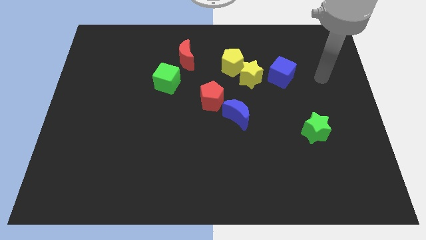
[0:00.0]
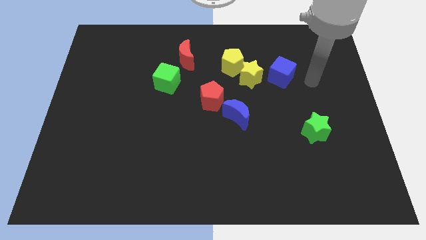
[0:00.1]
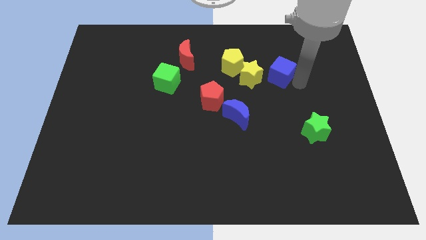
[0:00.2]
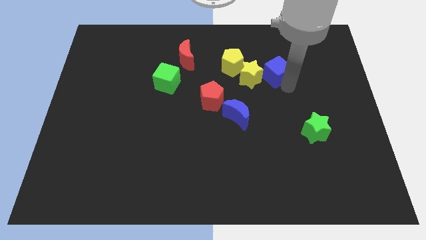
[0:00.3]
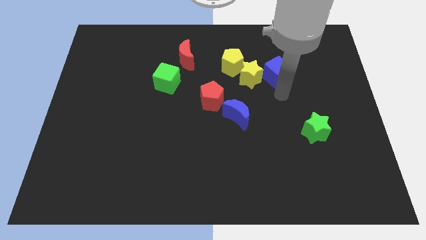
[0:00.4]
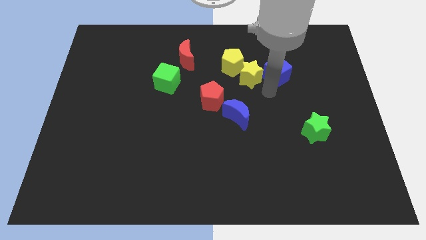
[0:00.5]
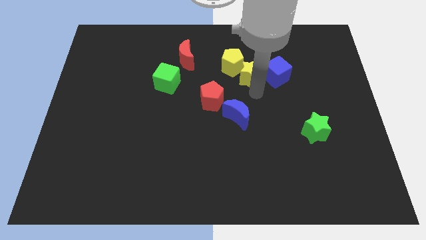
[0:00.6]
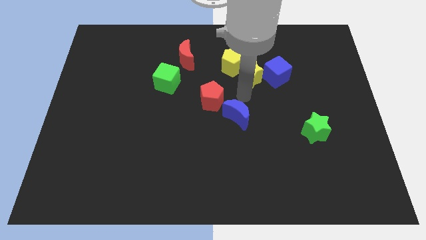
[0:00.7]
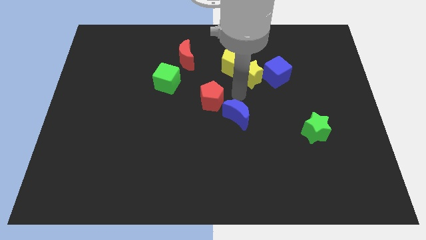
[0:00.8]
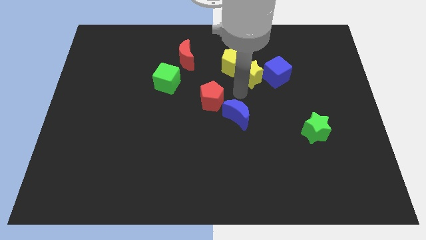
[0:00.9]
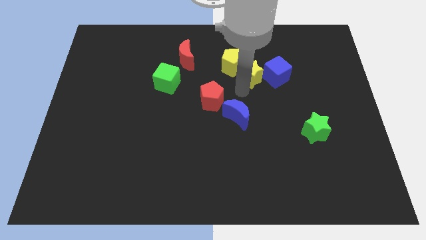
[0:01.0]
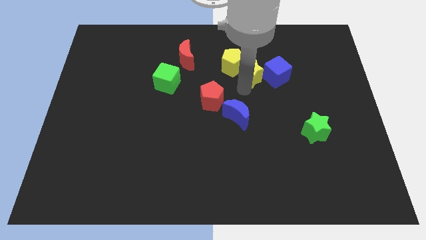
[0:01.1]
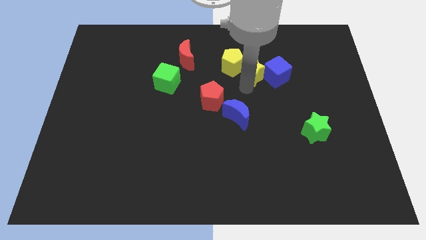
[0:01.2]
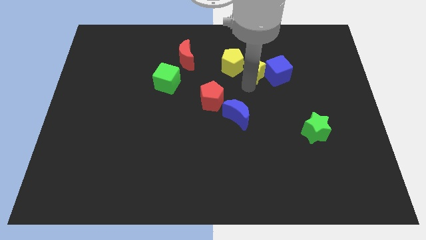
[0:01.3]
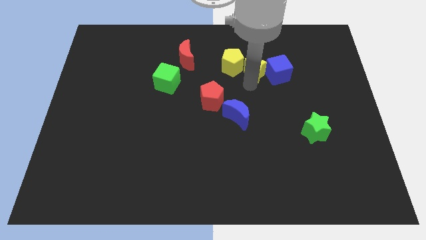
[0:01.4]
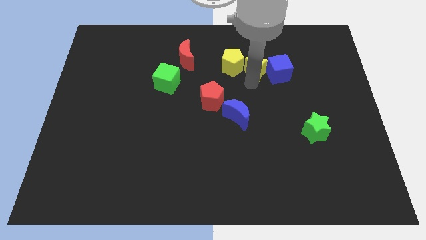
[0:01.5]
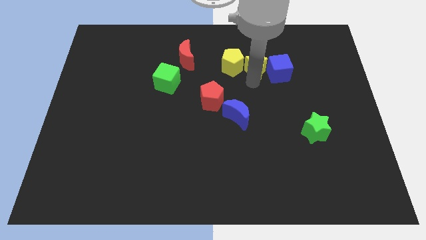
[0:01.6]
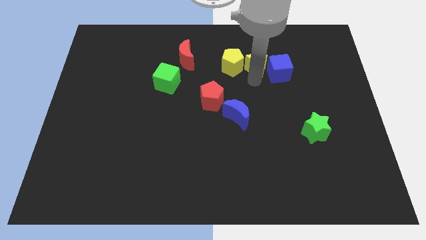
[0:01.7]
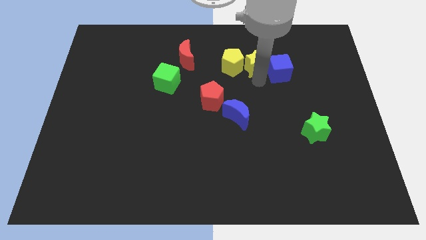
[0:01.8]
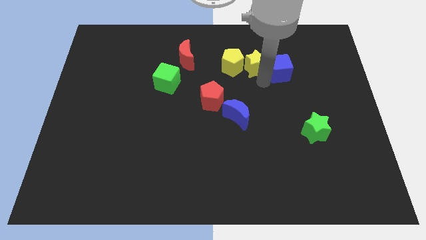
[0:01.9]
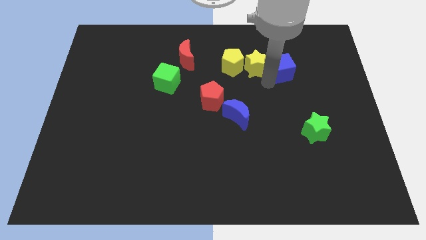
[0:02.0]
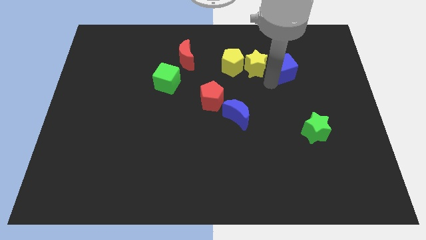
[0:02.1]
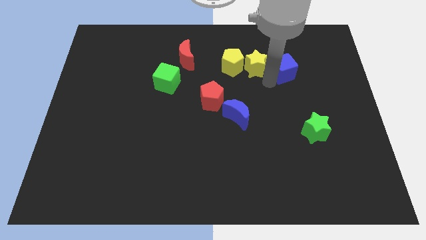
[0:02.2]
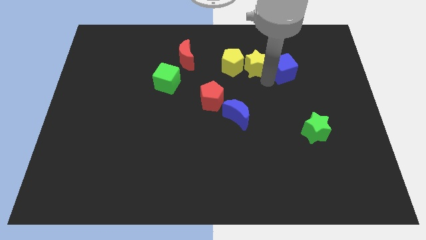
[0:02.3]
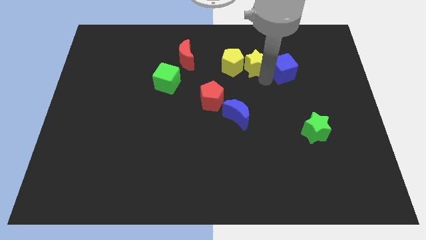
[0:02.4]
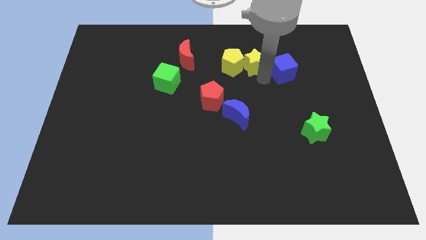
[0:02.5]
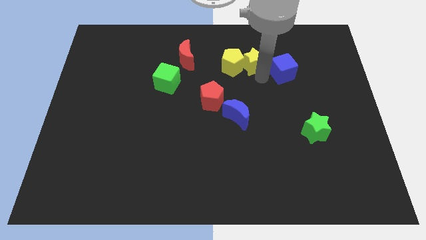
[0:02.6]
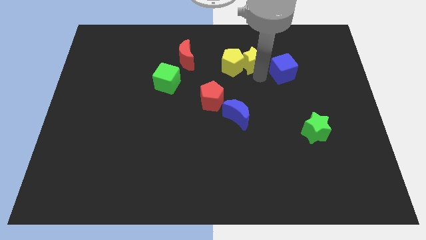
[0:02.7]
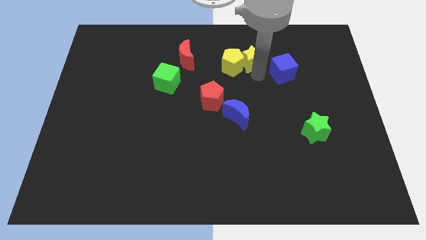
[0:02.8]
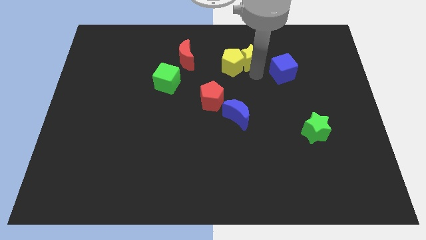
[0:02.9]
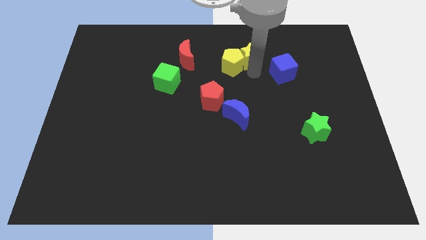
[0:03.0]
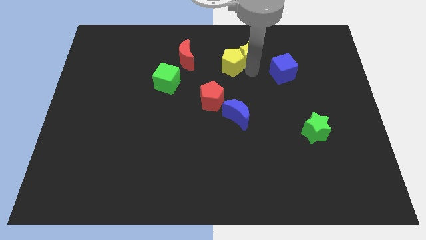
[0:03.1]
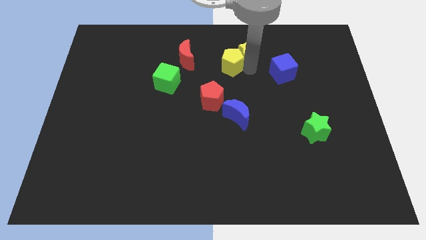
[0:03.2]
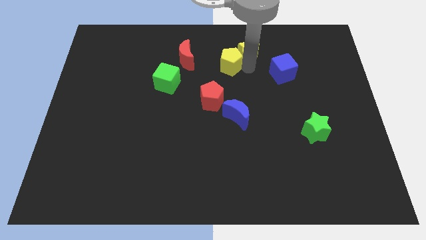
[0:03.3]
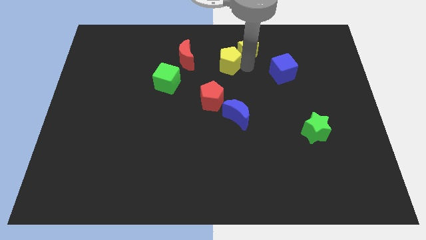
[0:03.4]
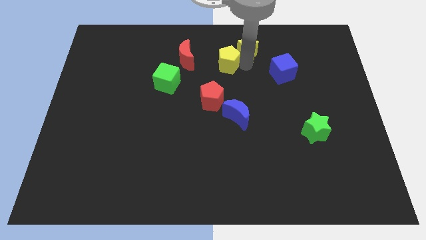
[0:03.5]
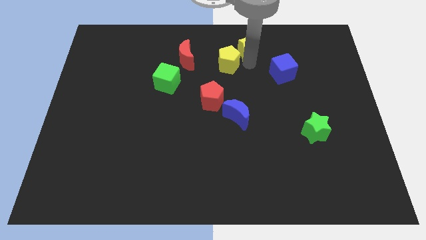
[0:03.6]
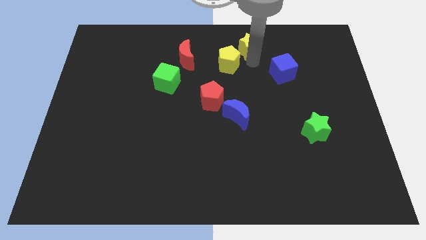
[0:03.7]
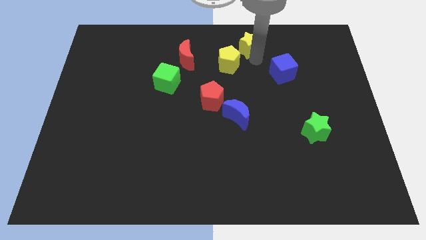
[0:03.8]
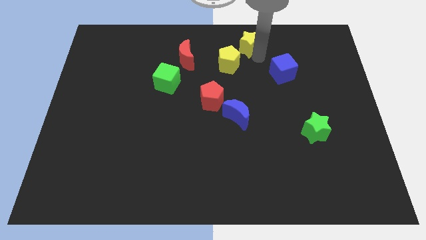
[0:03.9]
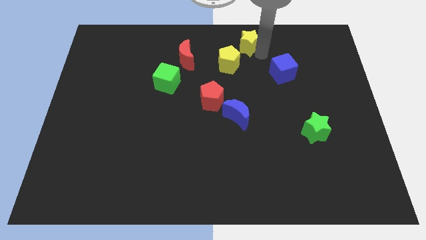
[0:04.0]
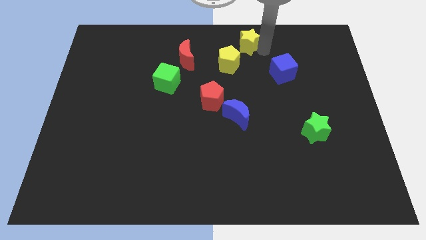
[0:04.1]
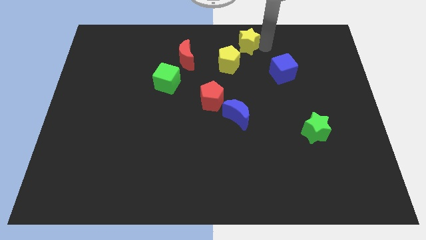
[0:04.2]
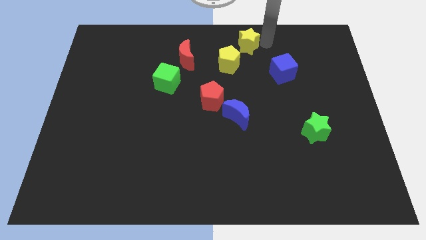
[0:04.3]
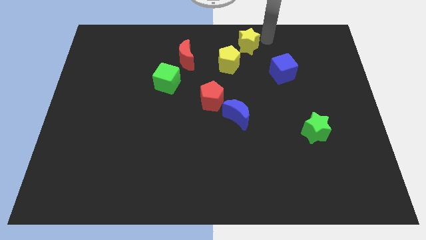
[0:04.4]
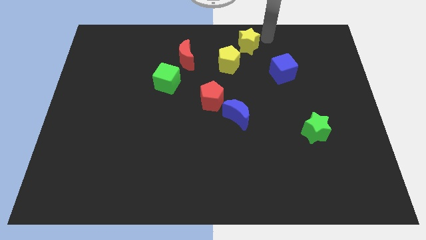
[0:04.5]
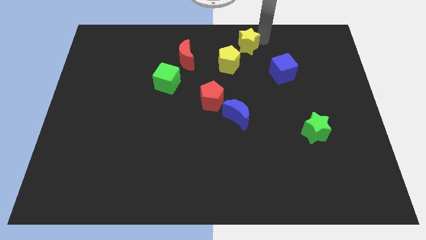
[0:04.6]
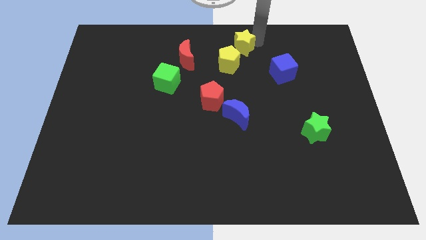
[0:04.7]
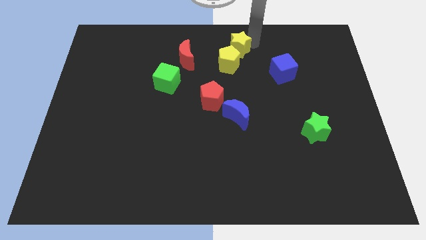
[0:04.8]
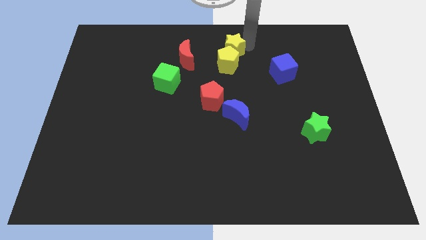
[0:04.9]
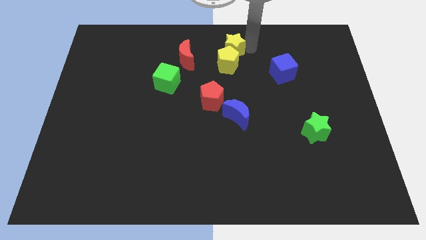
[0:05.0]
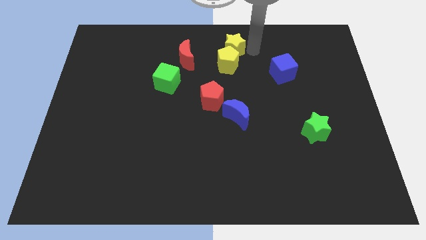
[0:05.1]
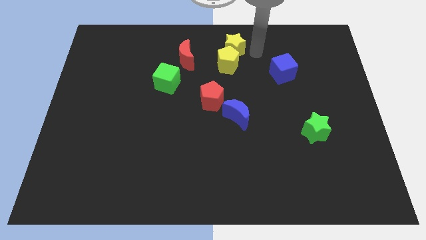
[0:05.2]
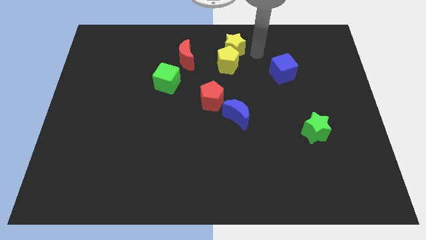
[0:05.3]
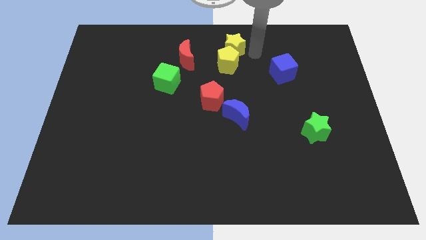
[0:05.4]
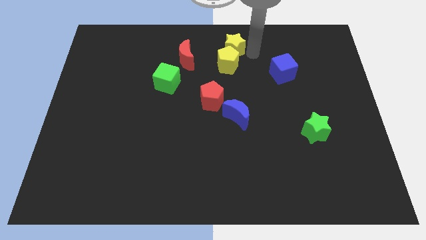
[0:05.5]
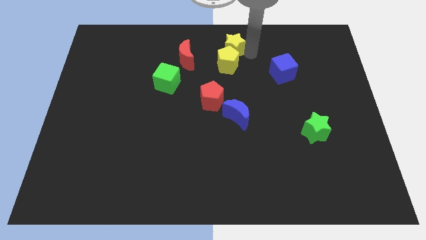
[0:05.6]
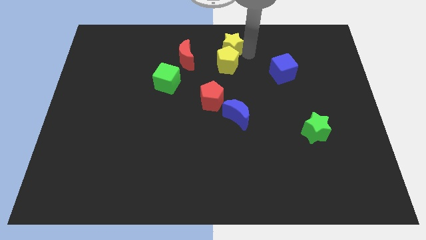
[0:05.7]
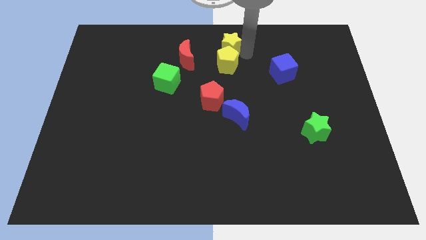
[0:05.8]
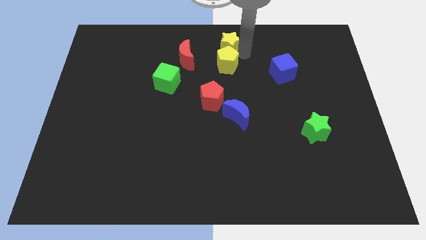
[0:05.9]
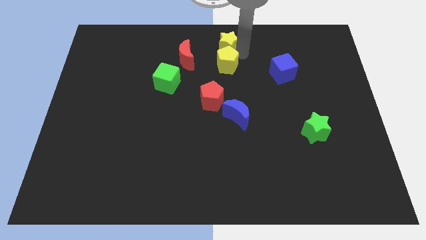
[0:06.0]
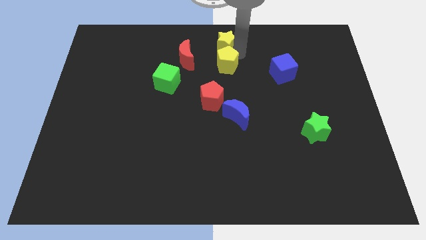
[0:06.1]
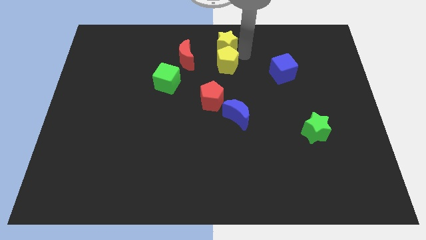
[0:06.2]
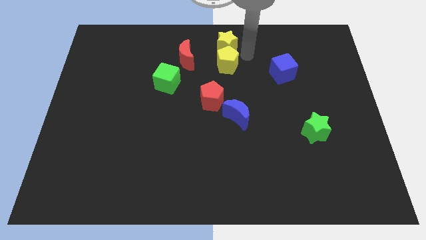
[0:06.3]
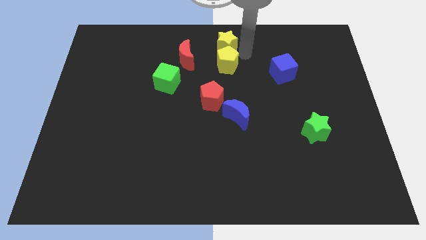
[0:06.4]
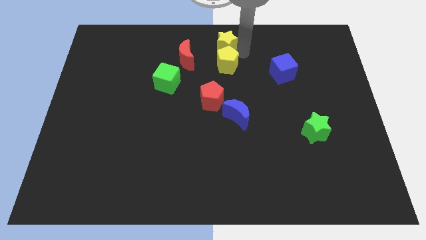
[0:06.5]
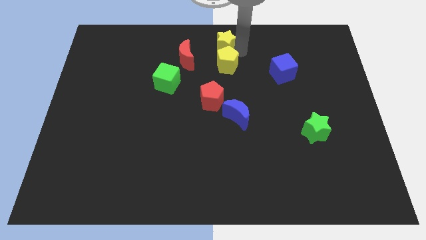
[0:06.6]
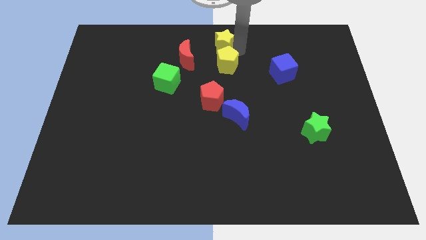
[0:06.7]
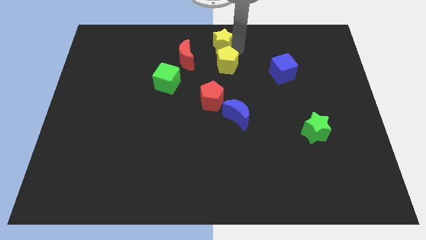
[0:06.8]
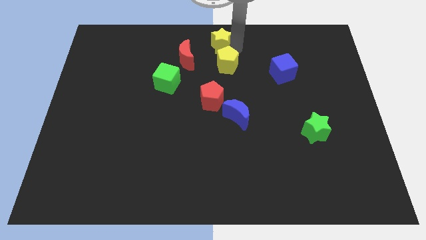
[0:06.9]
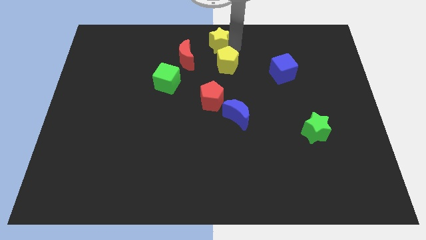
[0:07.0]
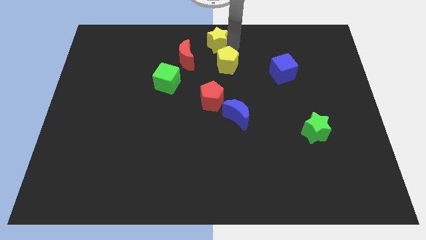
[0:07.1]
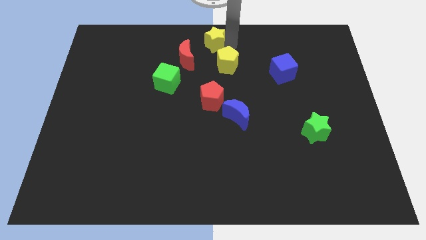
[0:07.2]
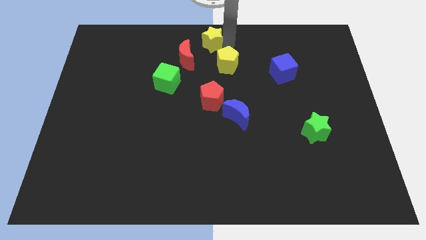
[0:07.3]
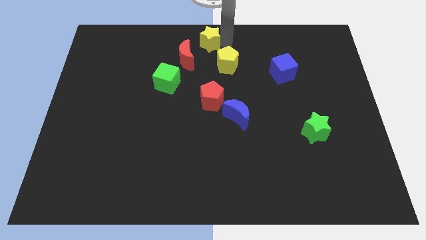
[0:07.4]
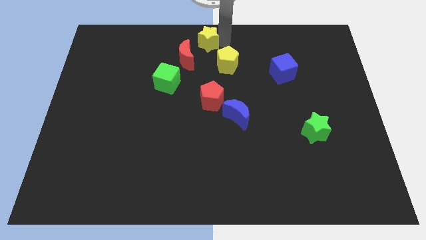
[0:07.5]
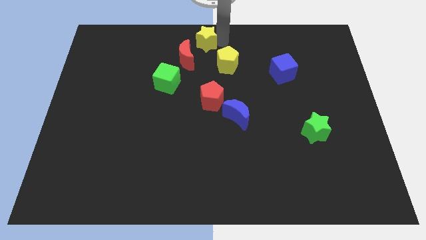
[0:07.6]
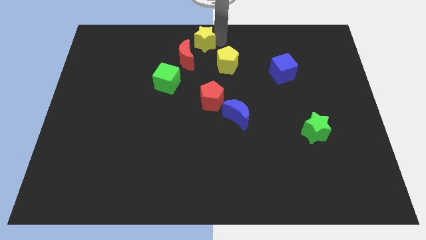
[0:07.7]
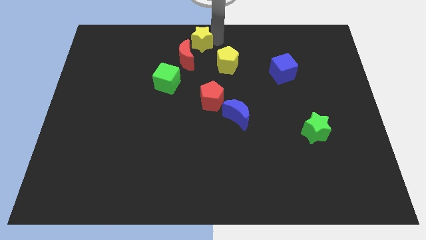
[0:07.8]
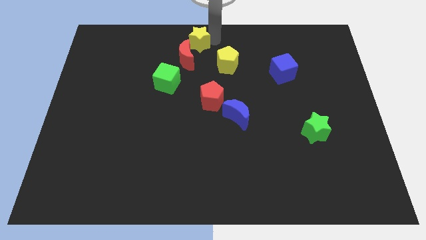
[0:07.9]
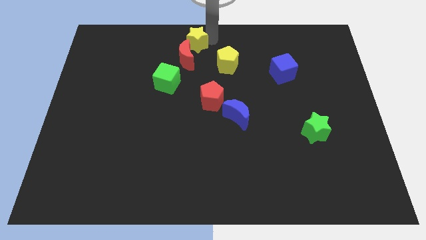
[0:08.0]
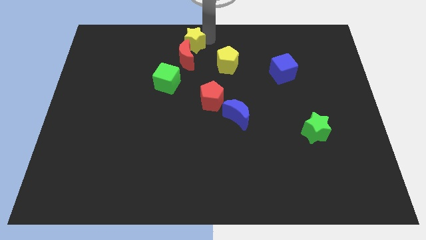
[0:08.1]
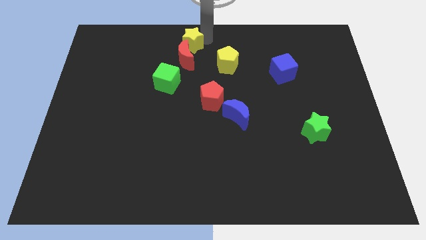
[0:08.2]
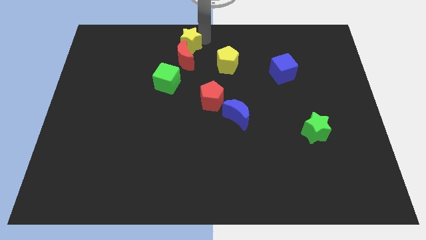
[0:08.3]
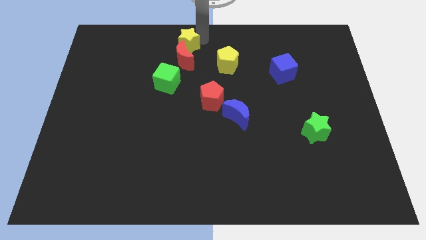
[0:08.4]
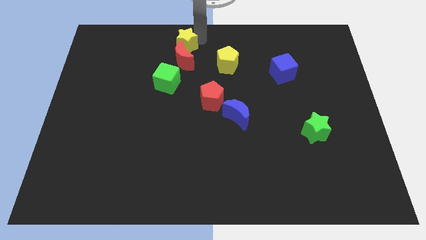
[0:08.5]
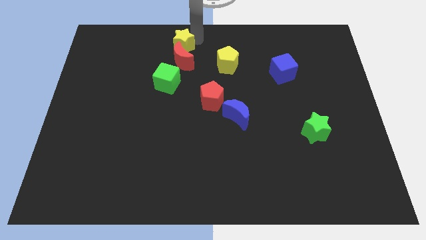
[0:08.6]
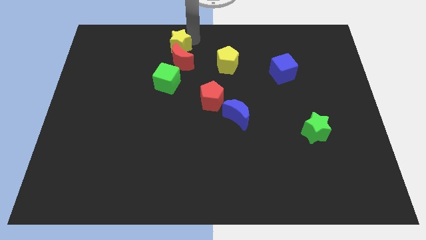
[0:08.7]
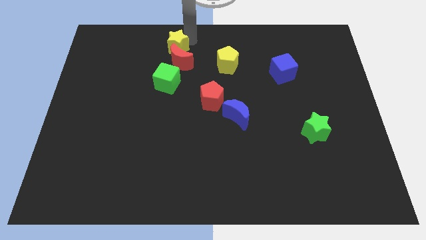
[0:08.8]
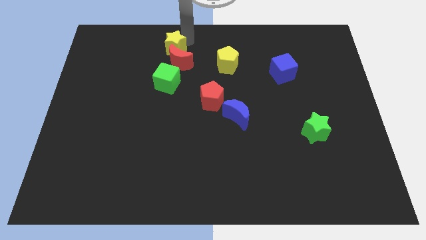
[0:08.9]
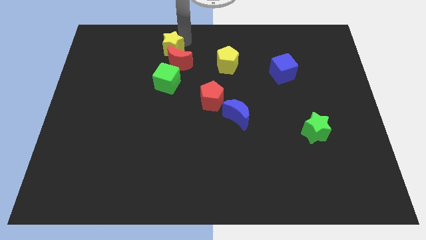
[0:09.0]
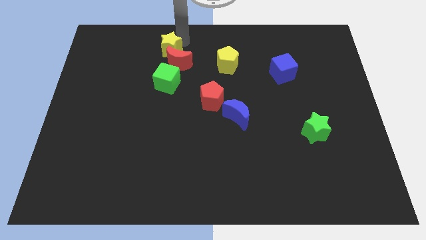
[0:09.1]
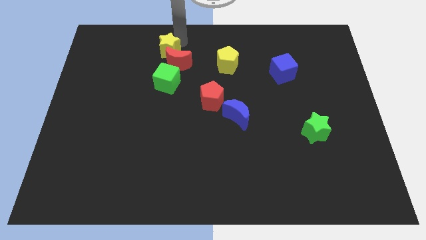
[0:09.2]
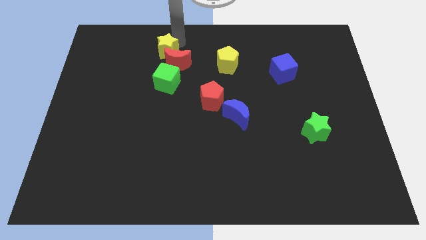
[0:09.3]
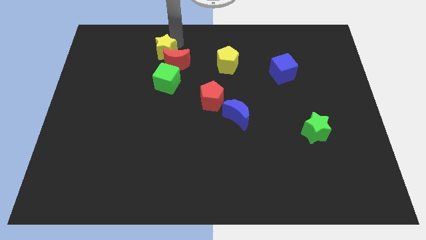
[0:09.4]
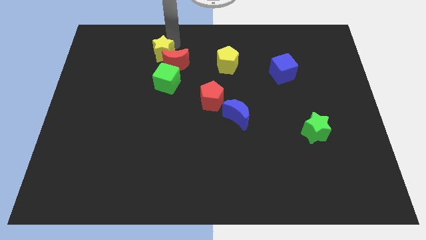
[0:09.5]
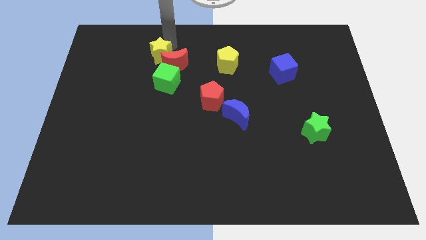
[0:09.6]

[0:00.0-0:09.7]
move the yellow star left
